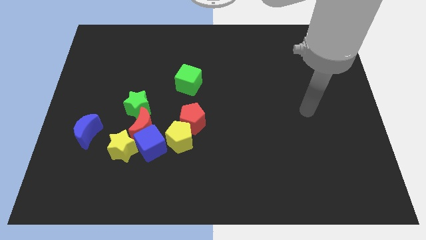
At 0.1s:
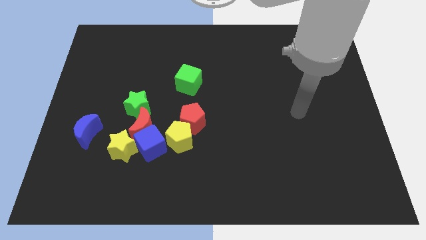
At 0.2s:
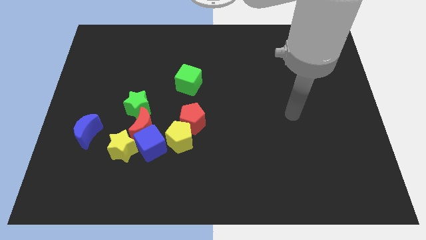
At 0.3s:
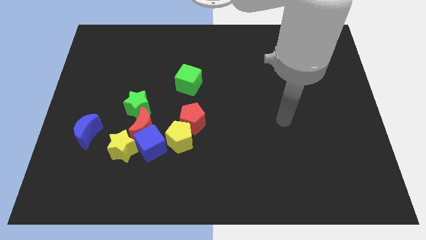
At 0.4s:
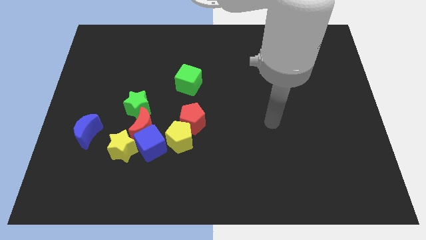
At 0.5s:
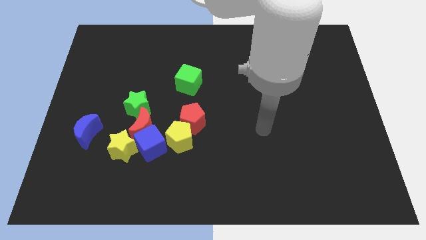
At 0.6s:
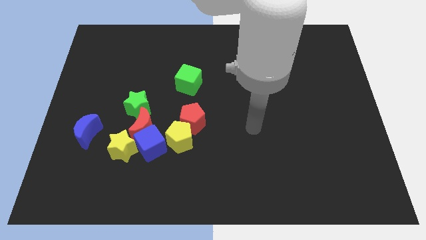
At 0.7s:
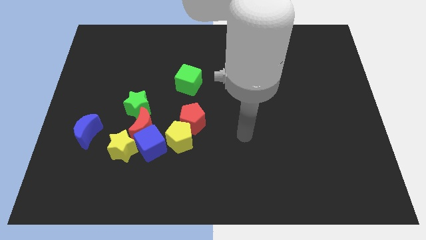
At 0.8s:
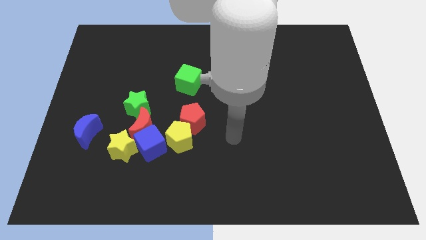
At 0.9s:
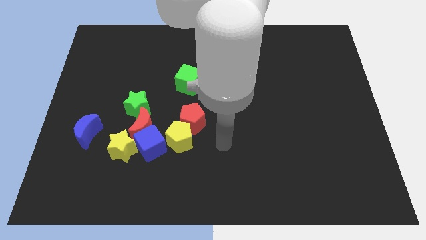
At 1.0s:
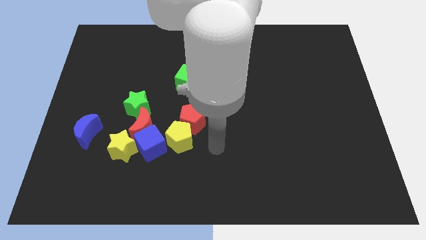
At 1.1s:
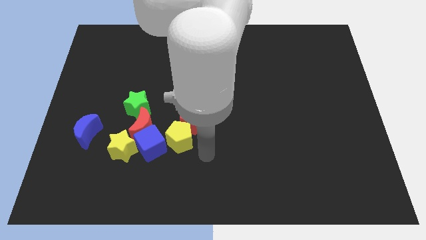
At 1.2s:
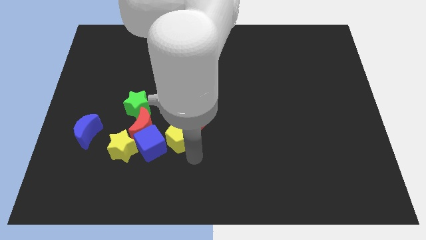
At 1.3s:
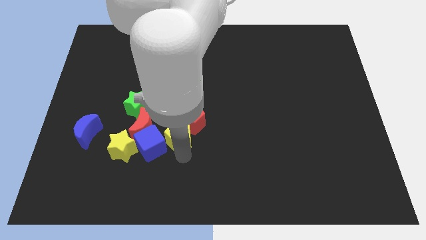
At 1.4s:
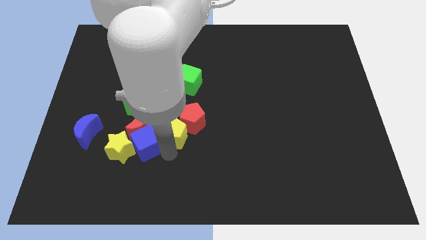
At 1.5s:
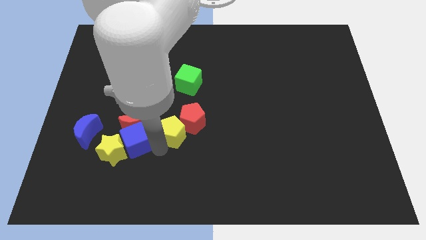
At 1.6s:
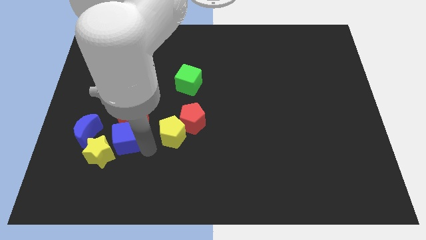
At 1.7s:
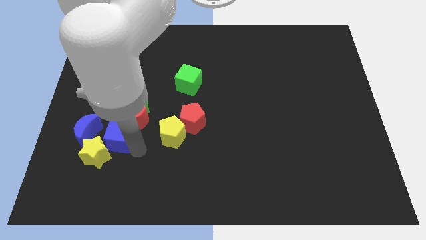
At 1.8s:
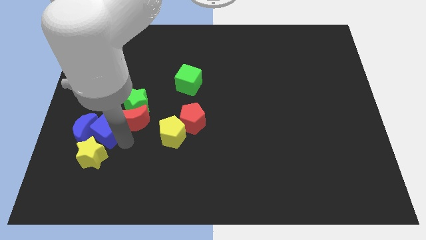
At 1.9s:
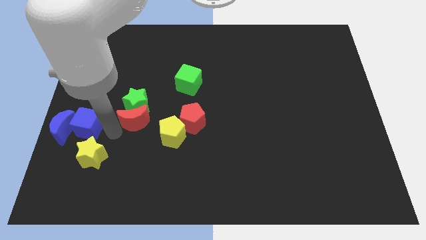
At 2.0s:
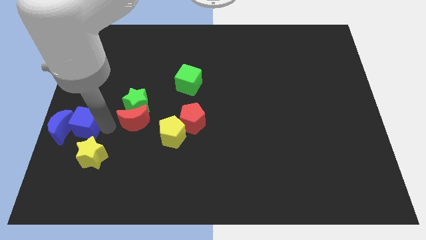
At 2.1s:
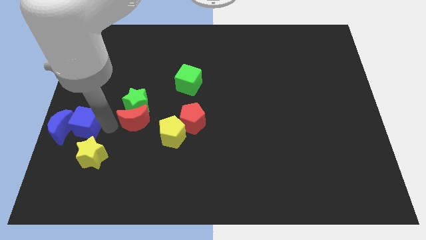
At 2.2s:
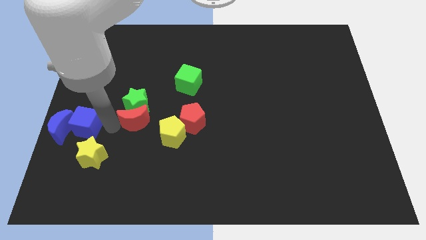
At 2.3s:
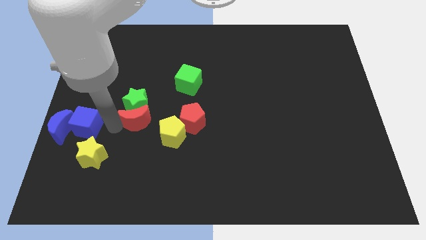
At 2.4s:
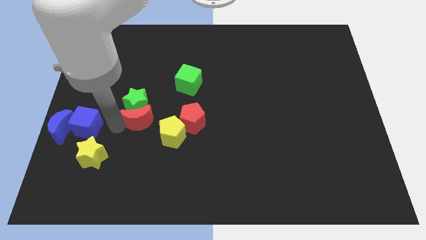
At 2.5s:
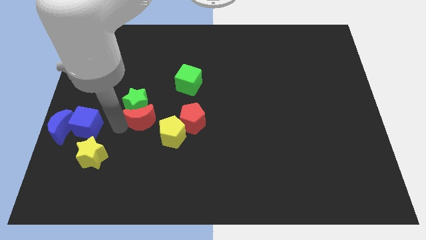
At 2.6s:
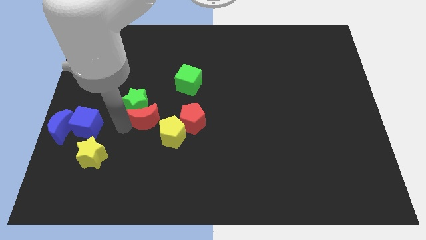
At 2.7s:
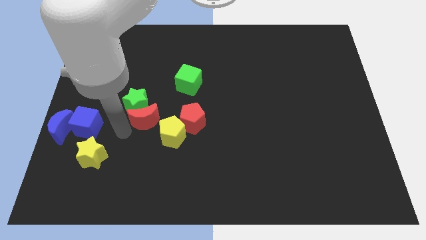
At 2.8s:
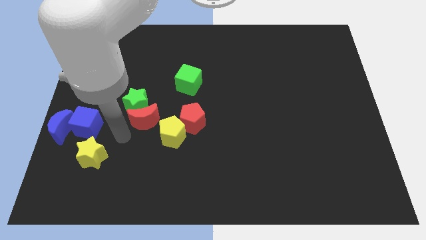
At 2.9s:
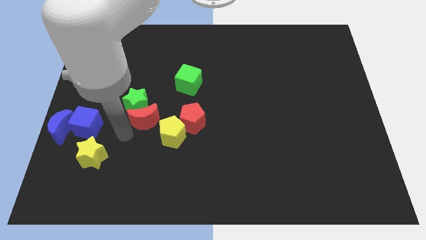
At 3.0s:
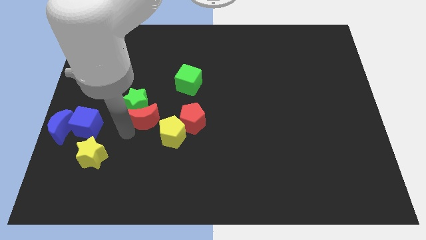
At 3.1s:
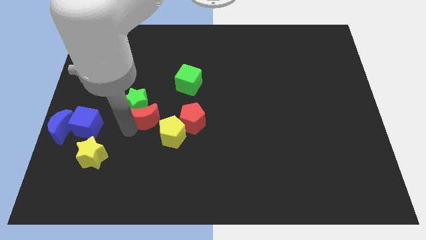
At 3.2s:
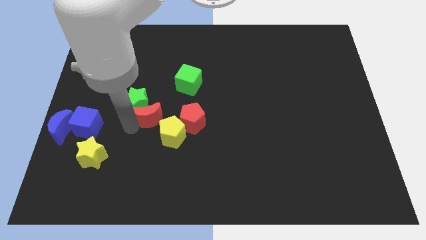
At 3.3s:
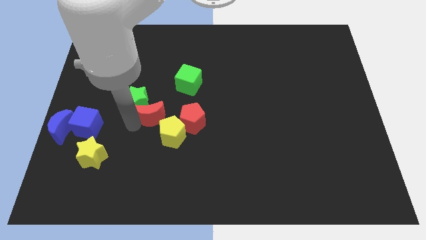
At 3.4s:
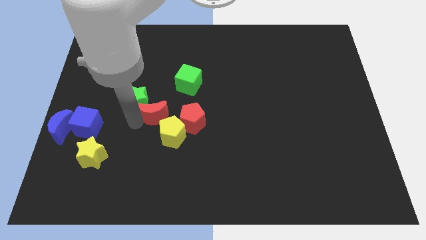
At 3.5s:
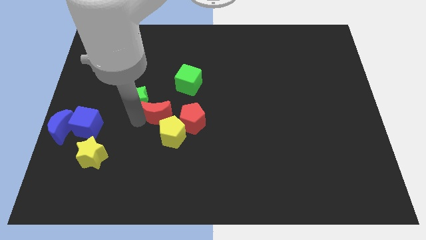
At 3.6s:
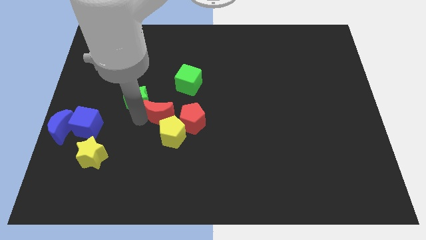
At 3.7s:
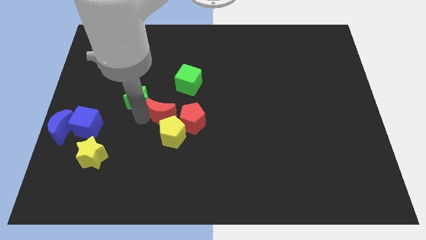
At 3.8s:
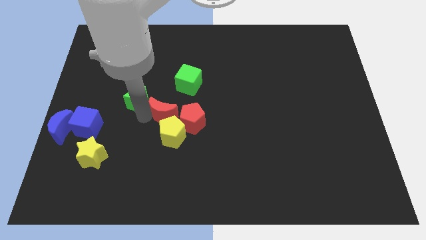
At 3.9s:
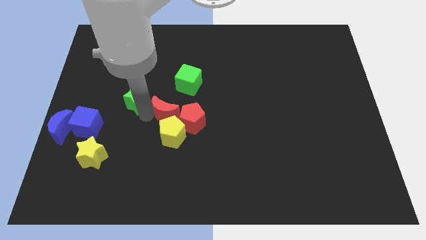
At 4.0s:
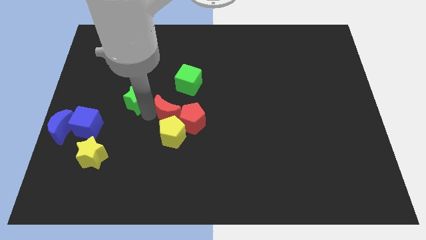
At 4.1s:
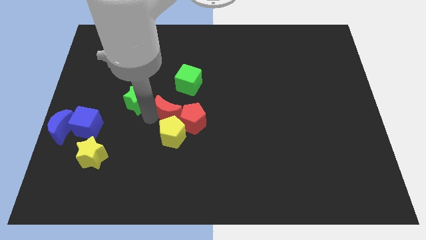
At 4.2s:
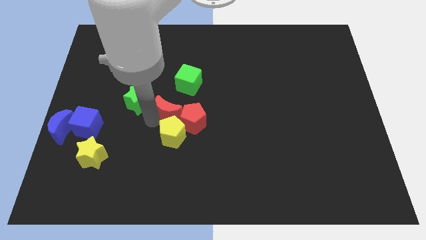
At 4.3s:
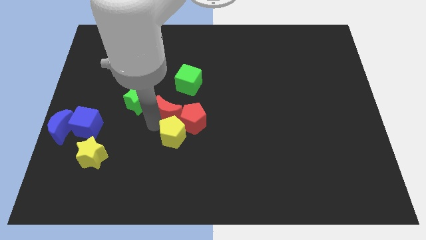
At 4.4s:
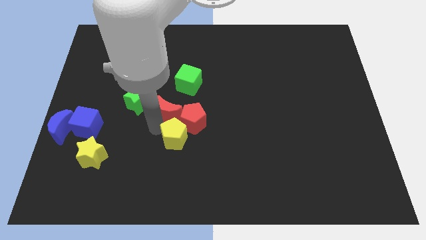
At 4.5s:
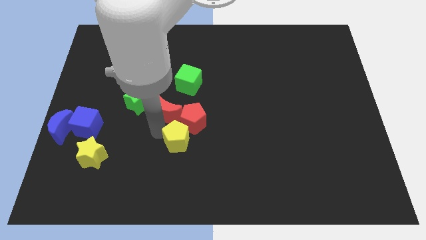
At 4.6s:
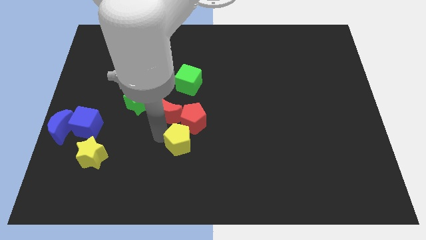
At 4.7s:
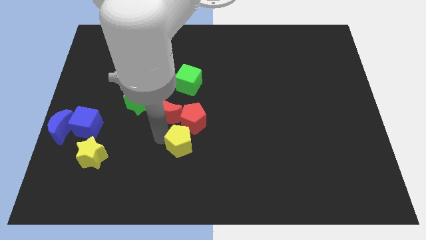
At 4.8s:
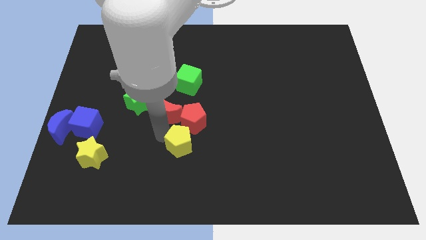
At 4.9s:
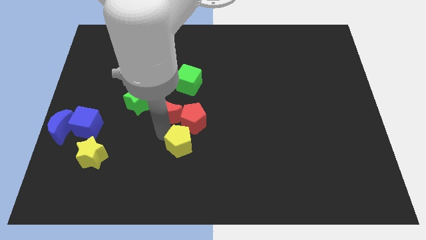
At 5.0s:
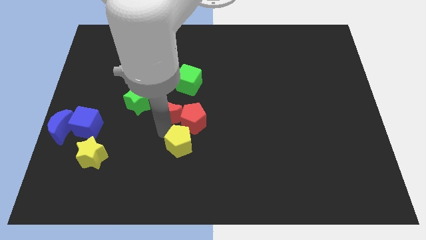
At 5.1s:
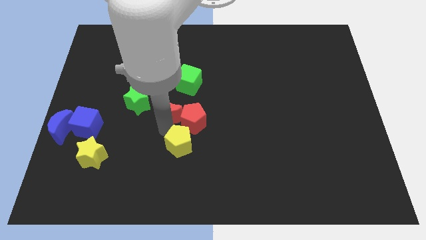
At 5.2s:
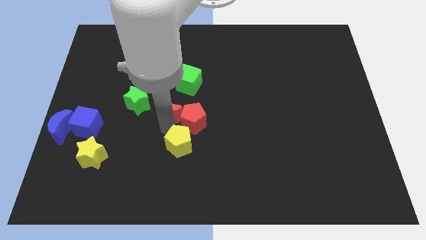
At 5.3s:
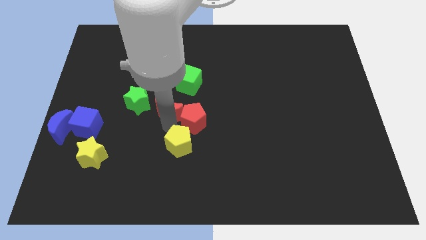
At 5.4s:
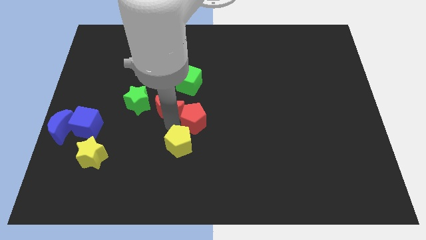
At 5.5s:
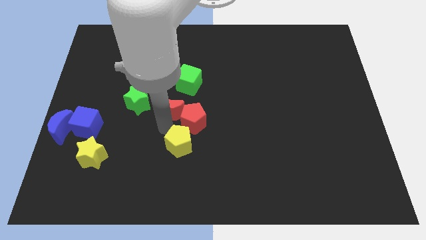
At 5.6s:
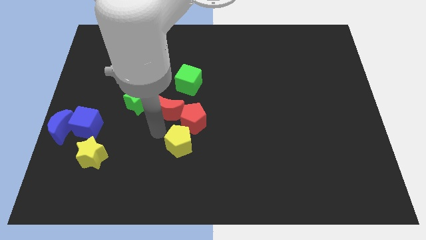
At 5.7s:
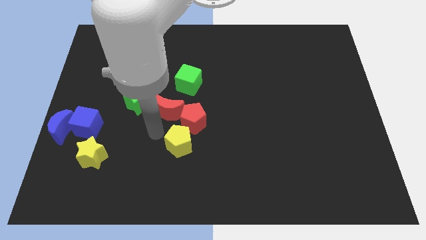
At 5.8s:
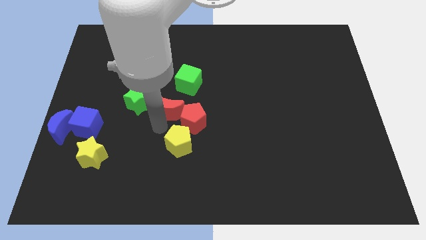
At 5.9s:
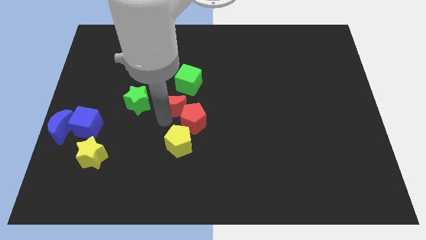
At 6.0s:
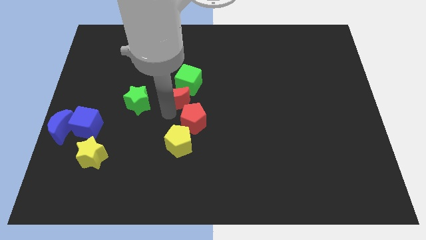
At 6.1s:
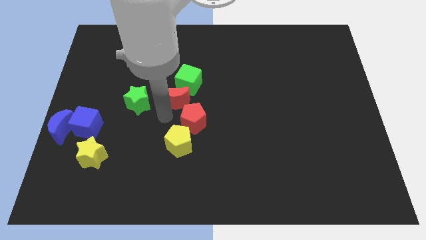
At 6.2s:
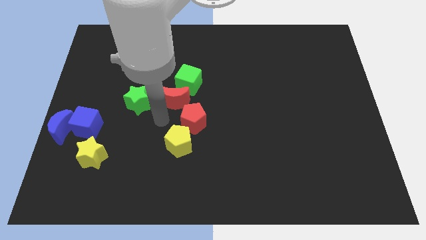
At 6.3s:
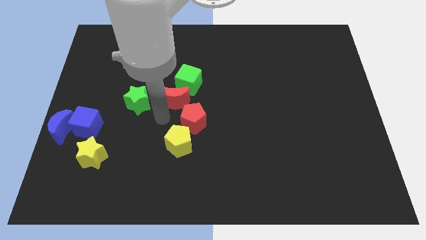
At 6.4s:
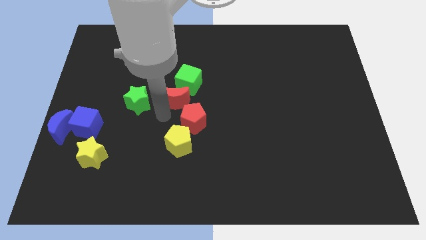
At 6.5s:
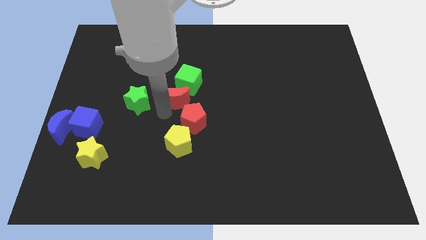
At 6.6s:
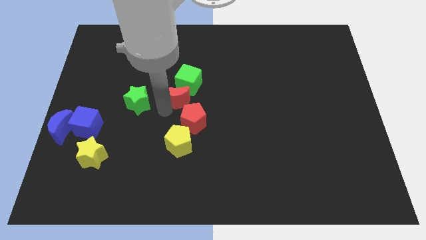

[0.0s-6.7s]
move the red moon towards the green cube
